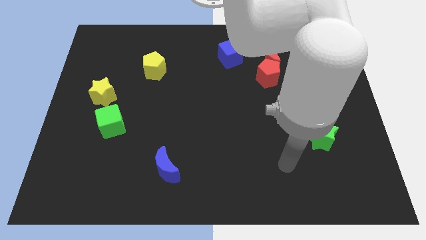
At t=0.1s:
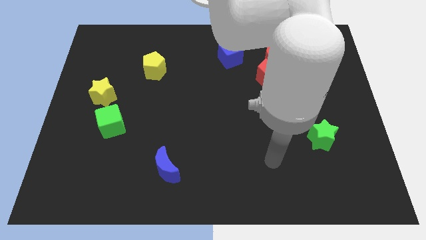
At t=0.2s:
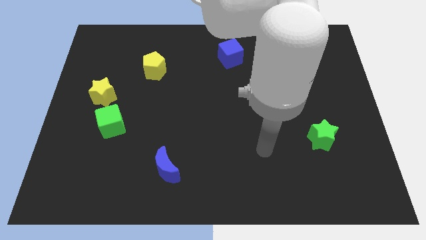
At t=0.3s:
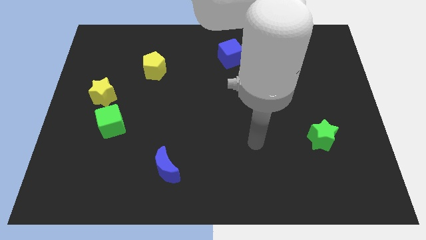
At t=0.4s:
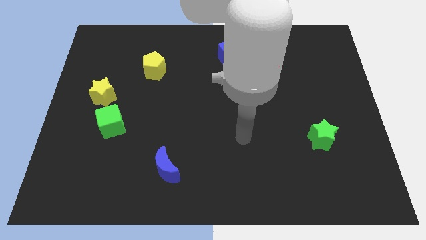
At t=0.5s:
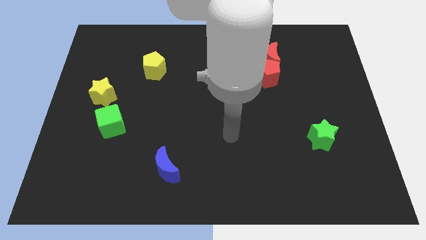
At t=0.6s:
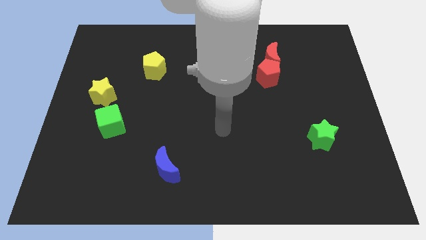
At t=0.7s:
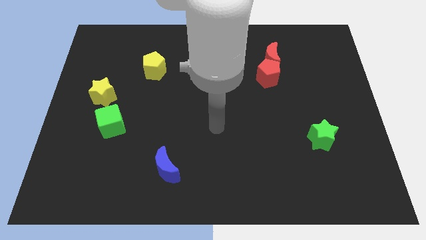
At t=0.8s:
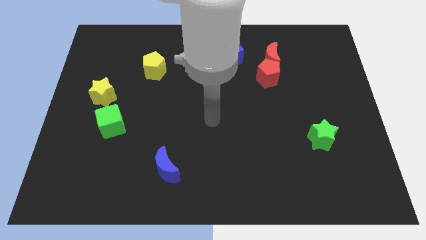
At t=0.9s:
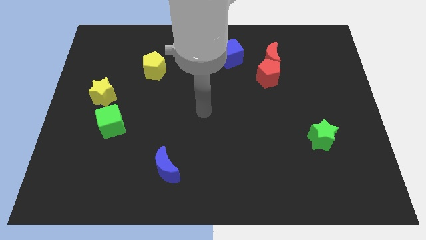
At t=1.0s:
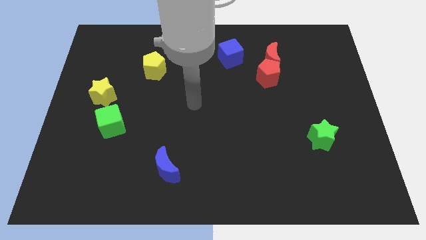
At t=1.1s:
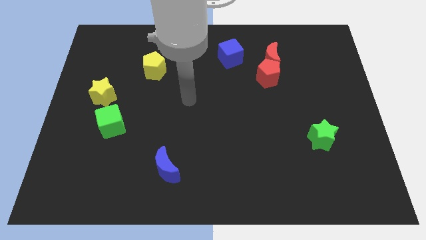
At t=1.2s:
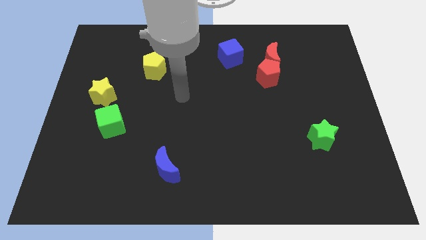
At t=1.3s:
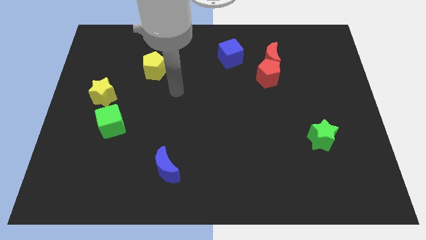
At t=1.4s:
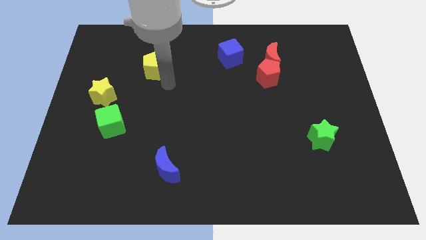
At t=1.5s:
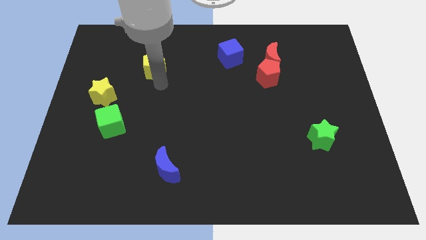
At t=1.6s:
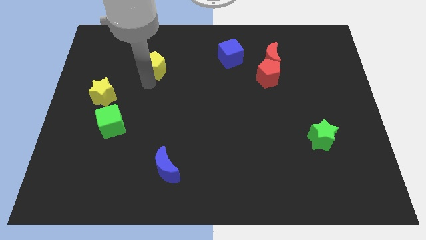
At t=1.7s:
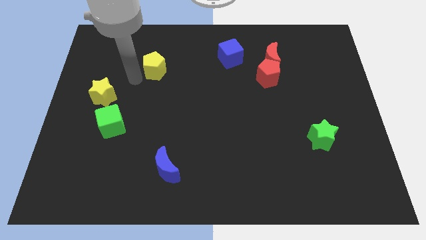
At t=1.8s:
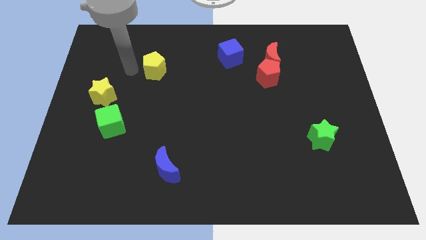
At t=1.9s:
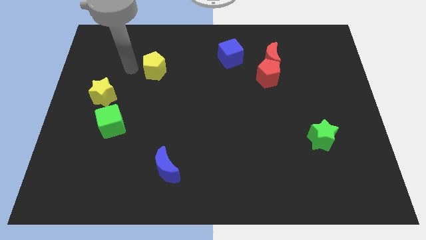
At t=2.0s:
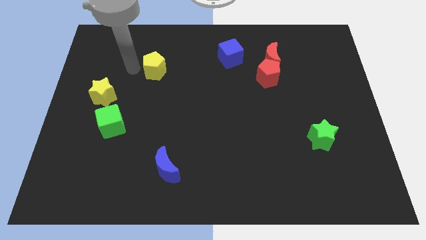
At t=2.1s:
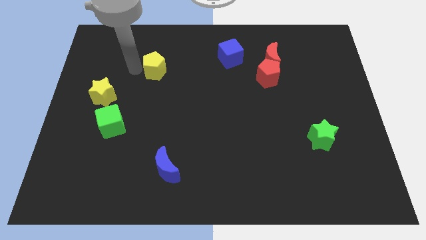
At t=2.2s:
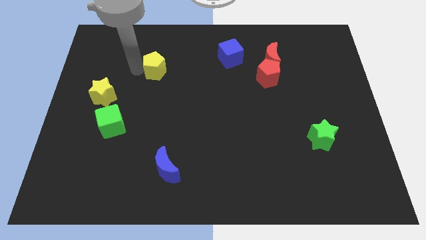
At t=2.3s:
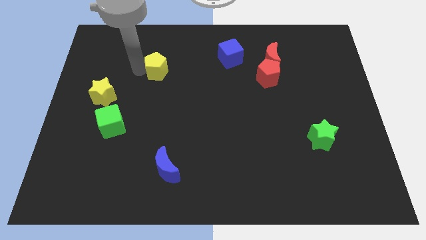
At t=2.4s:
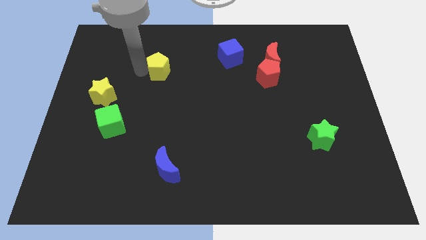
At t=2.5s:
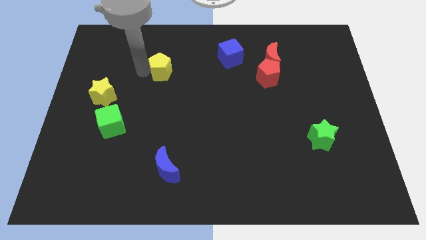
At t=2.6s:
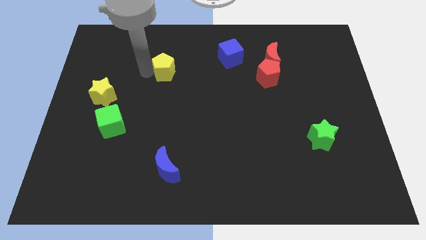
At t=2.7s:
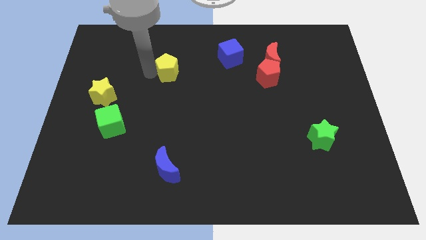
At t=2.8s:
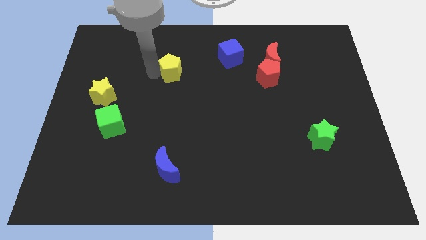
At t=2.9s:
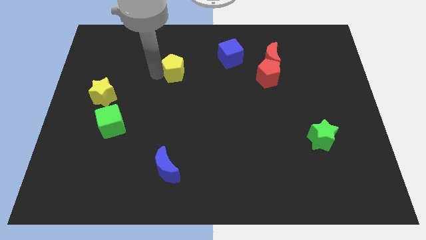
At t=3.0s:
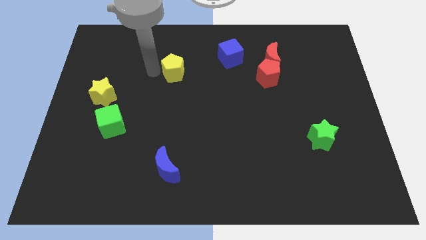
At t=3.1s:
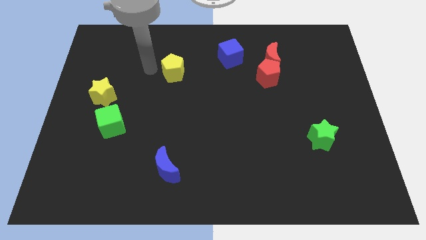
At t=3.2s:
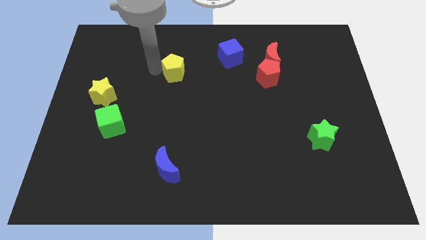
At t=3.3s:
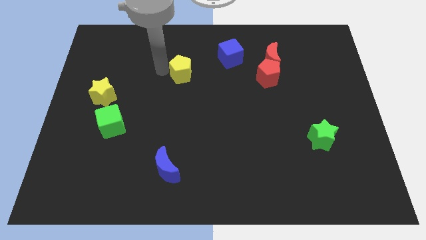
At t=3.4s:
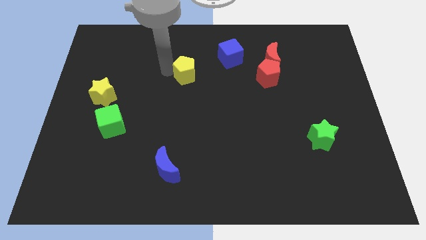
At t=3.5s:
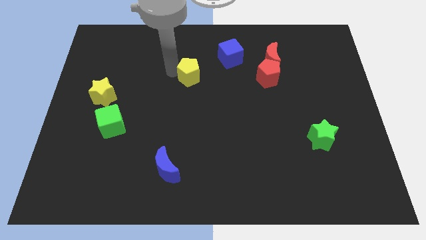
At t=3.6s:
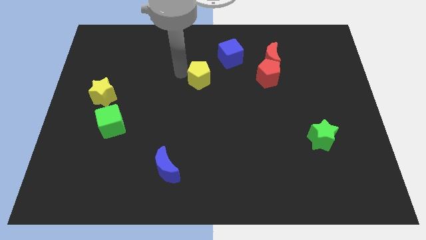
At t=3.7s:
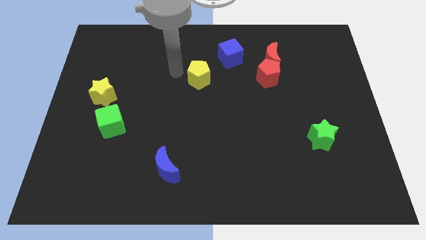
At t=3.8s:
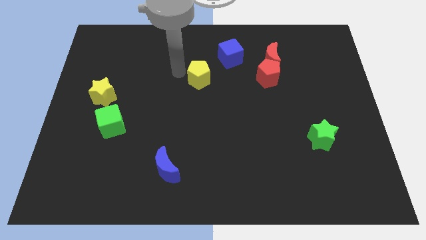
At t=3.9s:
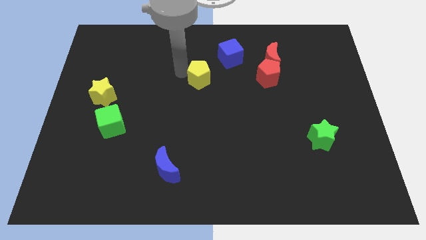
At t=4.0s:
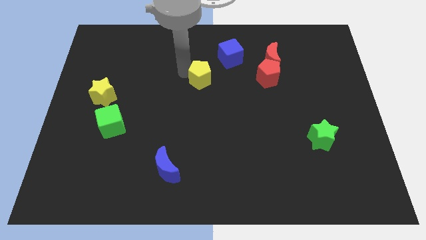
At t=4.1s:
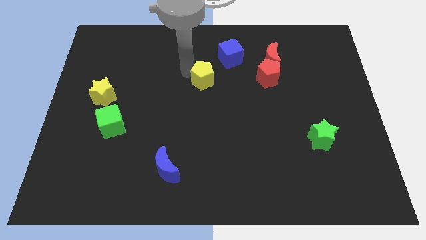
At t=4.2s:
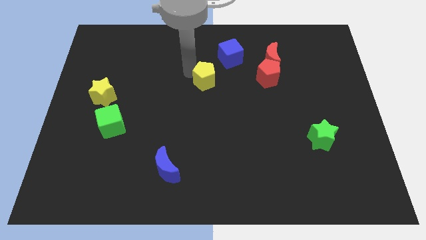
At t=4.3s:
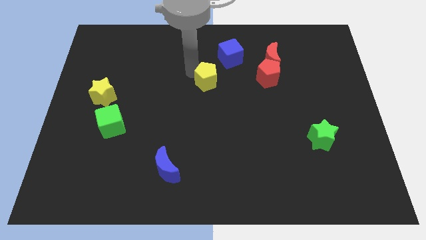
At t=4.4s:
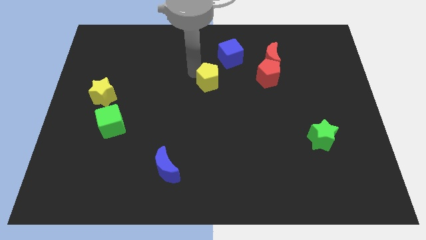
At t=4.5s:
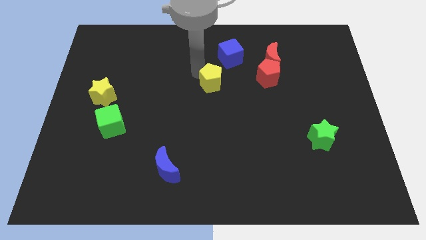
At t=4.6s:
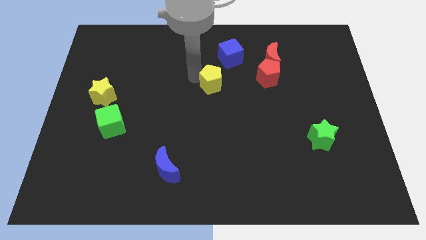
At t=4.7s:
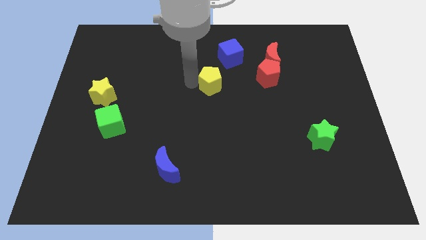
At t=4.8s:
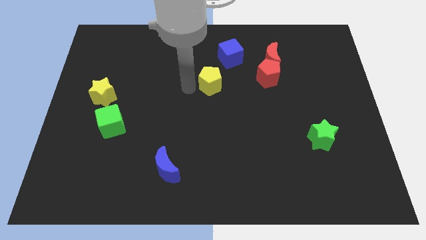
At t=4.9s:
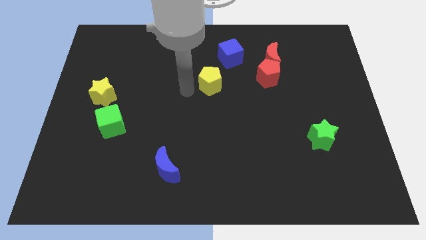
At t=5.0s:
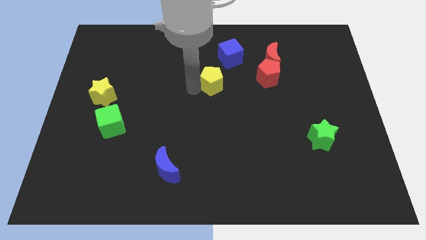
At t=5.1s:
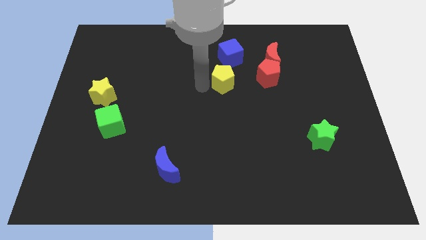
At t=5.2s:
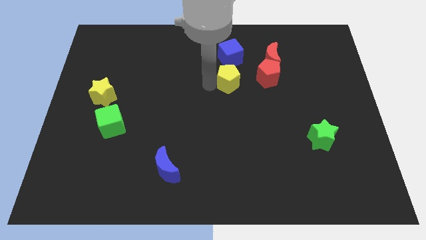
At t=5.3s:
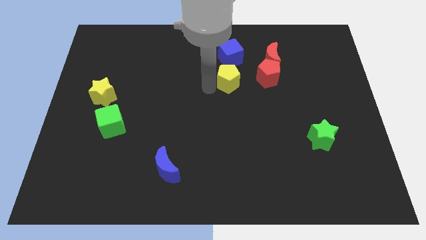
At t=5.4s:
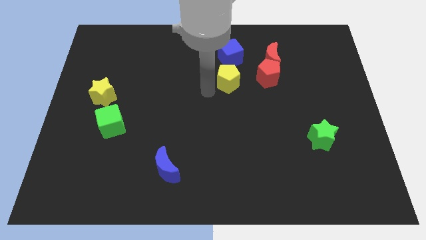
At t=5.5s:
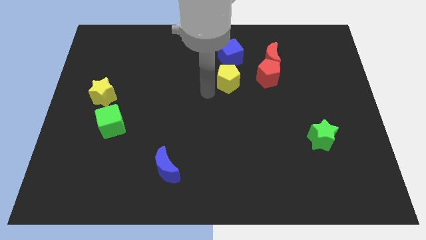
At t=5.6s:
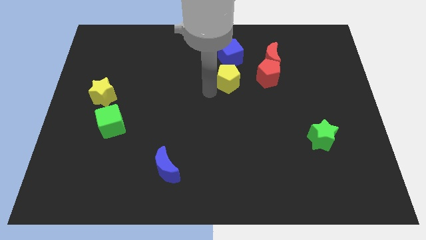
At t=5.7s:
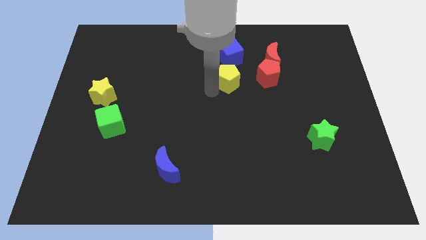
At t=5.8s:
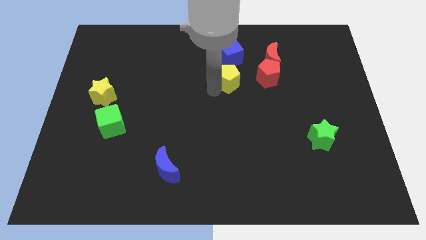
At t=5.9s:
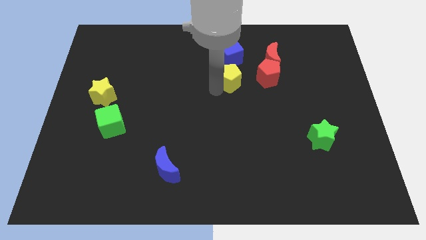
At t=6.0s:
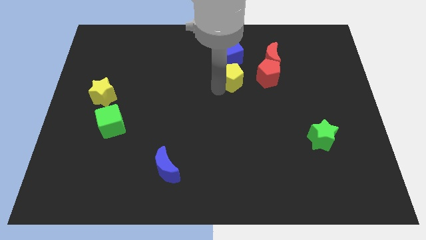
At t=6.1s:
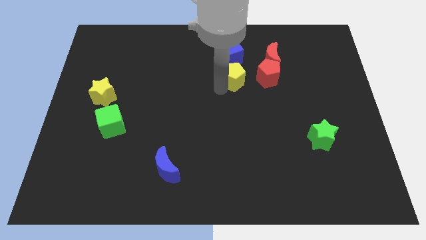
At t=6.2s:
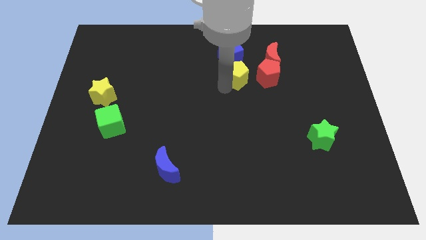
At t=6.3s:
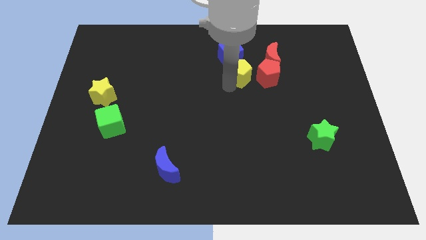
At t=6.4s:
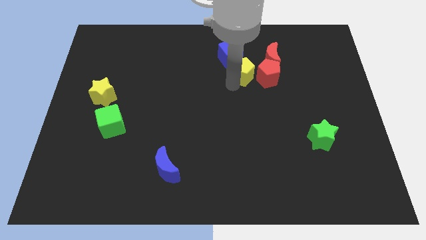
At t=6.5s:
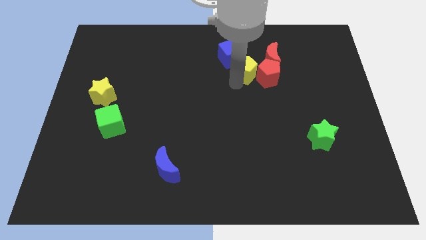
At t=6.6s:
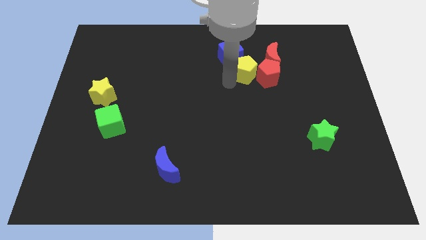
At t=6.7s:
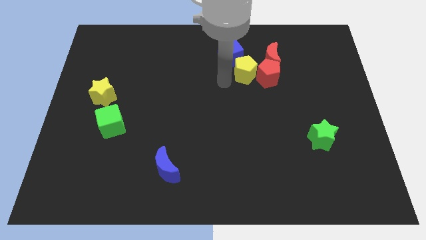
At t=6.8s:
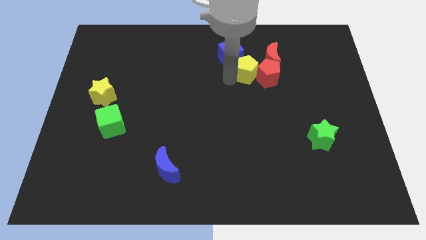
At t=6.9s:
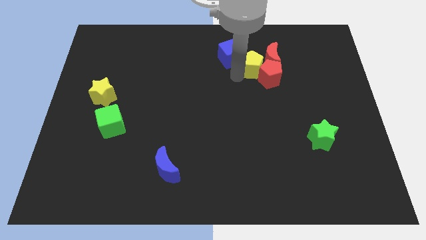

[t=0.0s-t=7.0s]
put the yellow pentagon to the red moon

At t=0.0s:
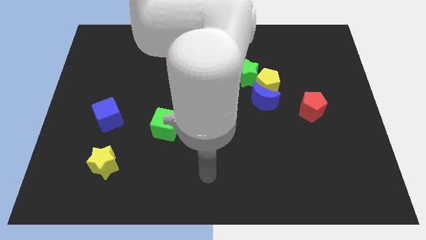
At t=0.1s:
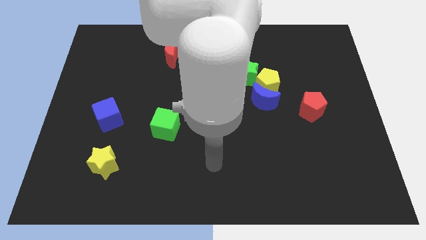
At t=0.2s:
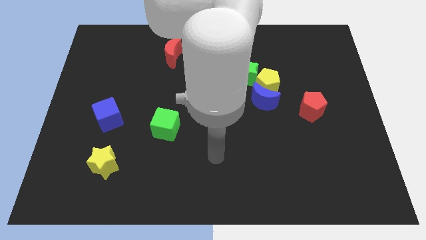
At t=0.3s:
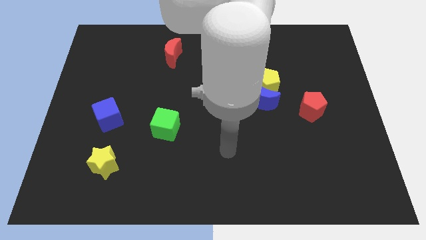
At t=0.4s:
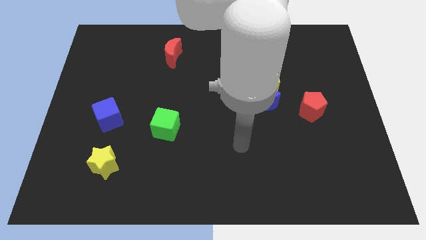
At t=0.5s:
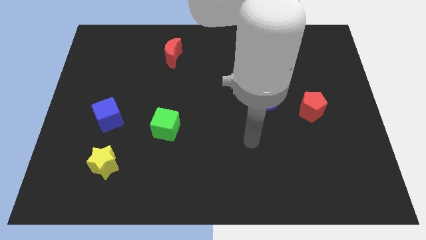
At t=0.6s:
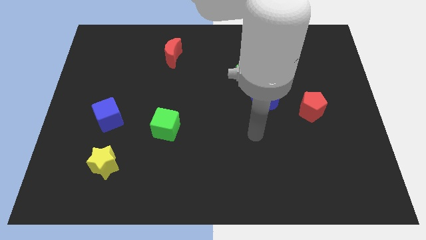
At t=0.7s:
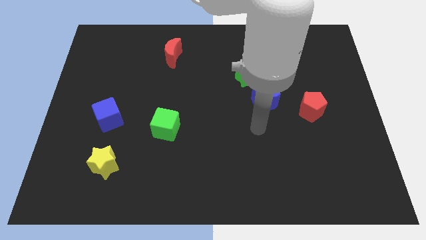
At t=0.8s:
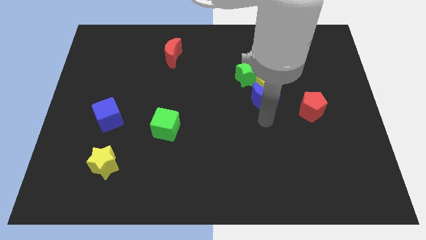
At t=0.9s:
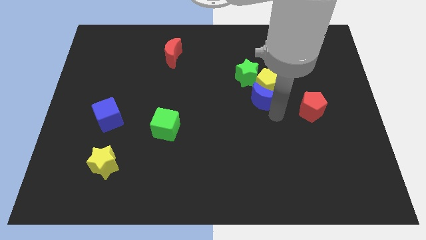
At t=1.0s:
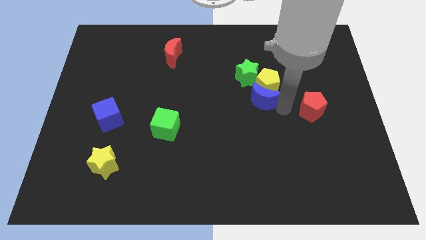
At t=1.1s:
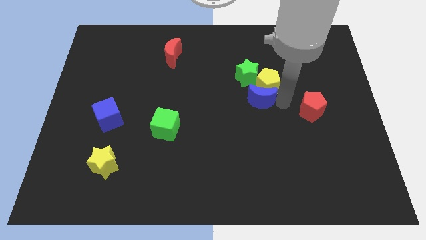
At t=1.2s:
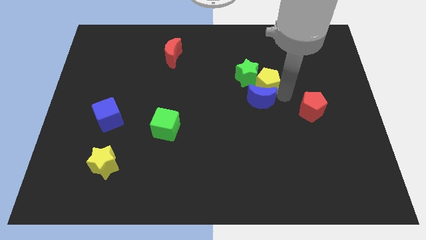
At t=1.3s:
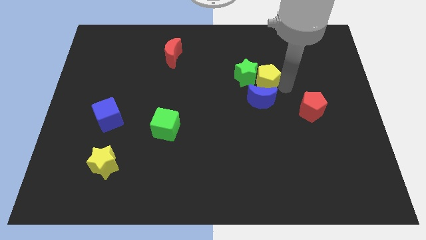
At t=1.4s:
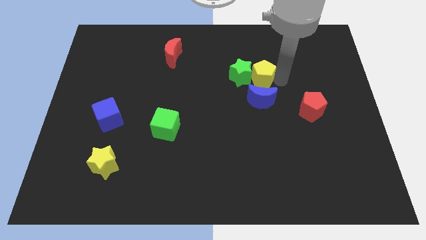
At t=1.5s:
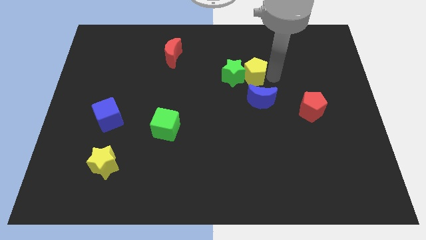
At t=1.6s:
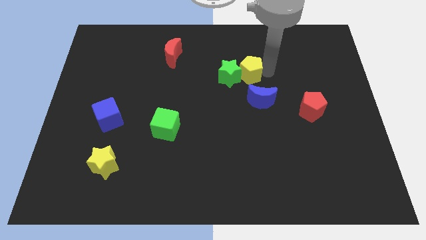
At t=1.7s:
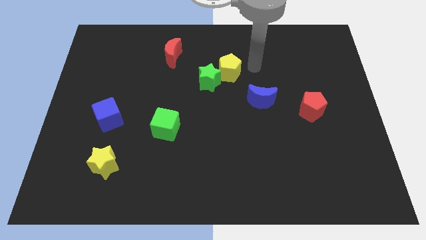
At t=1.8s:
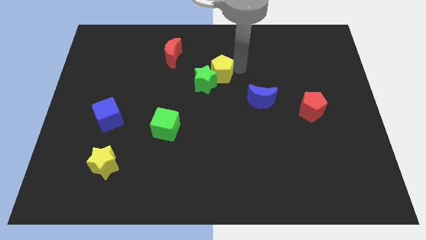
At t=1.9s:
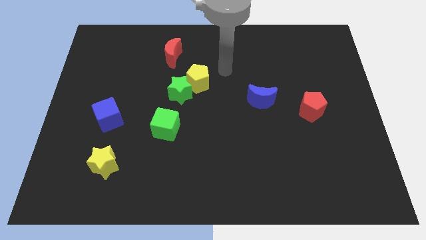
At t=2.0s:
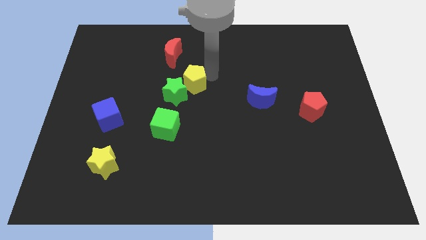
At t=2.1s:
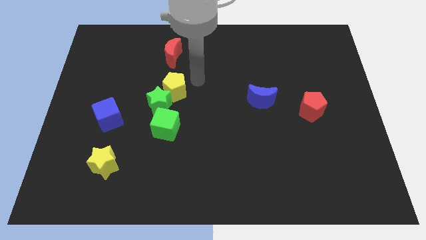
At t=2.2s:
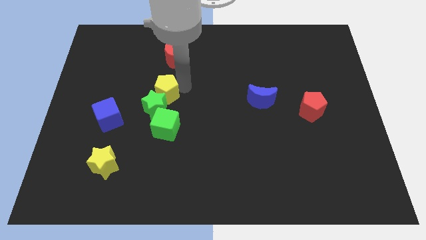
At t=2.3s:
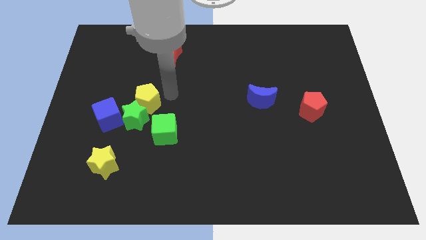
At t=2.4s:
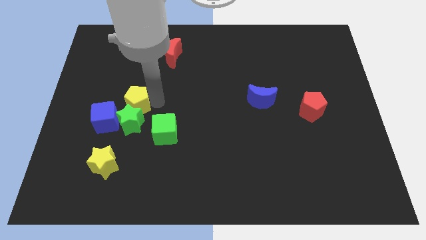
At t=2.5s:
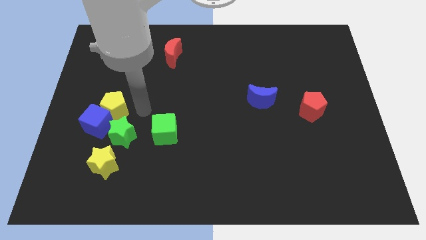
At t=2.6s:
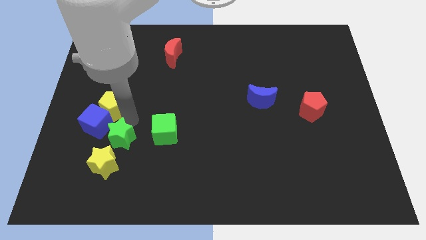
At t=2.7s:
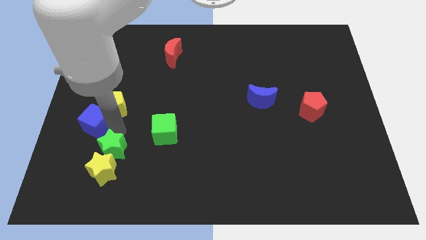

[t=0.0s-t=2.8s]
put the green star towards the yellow star
